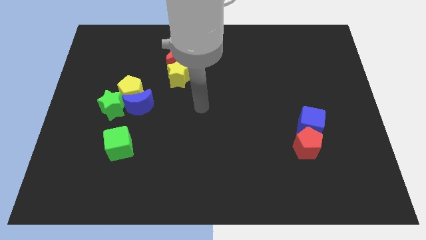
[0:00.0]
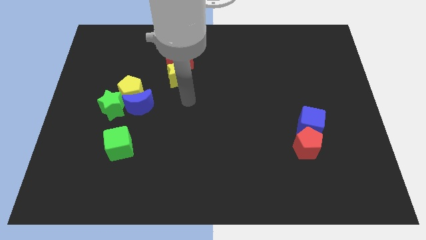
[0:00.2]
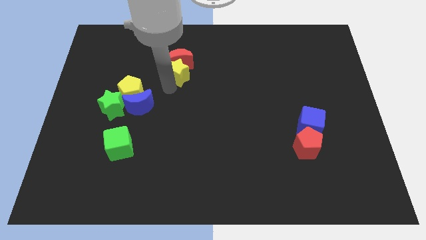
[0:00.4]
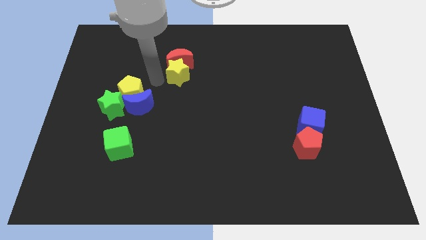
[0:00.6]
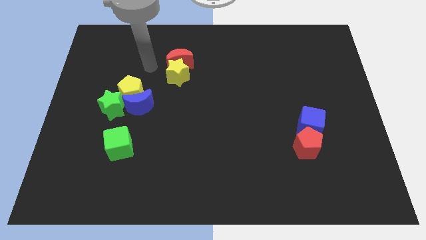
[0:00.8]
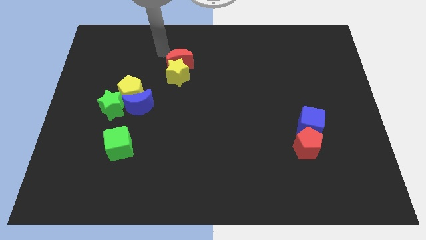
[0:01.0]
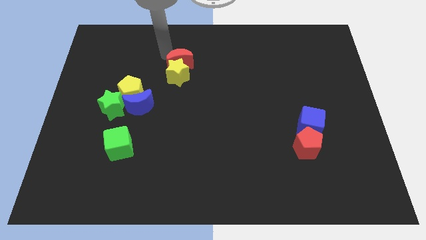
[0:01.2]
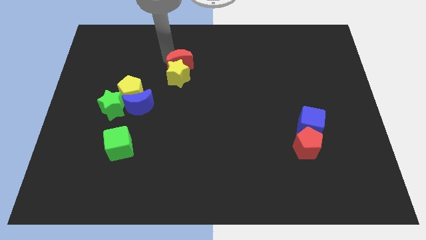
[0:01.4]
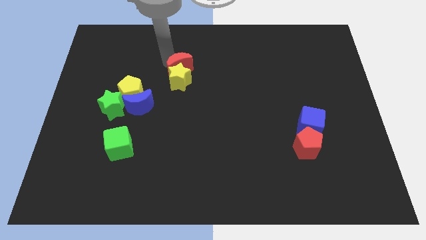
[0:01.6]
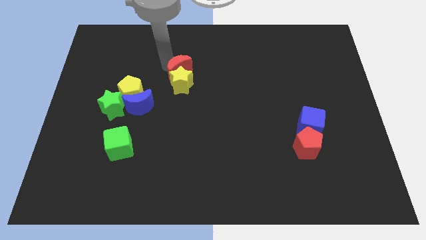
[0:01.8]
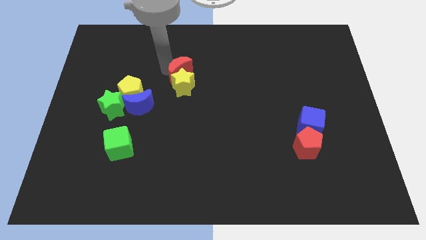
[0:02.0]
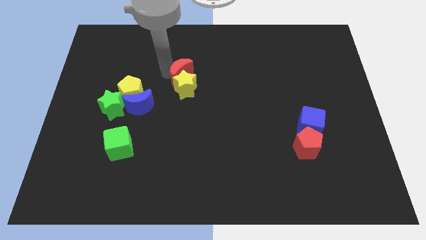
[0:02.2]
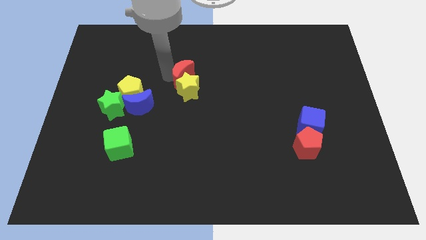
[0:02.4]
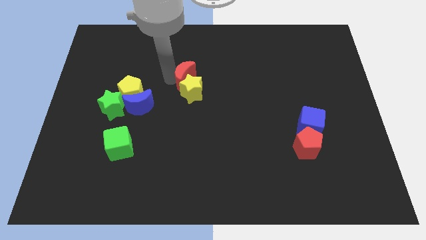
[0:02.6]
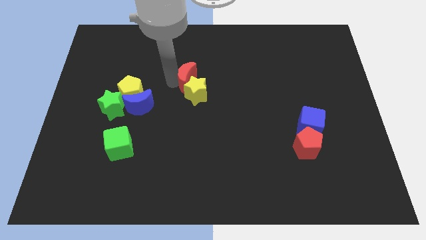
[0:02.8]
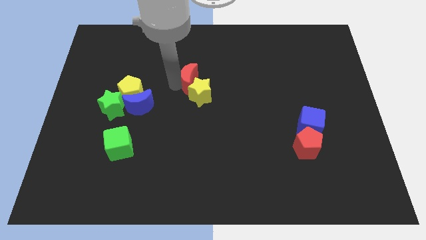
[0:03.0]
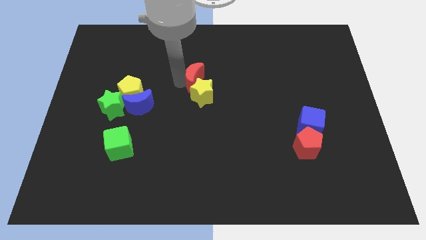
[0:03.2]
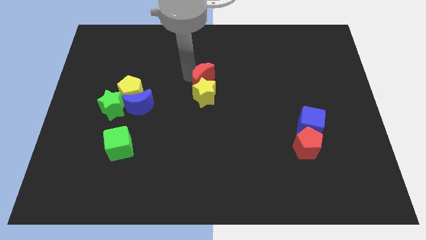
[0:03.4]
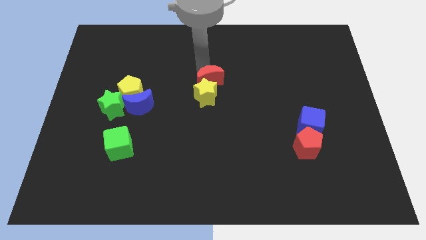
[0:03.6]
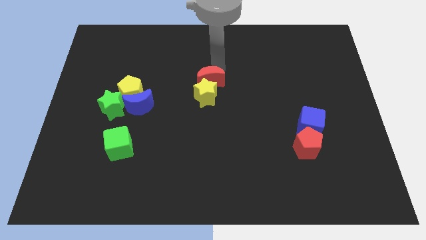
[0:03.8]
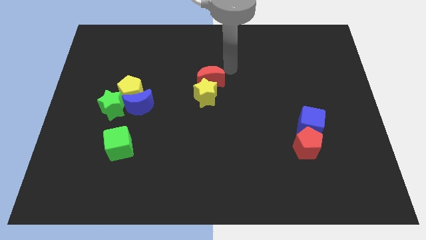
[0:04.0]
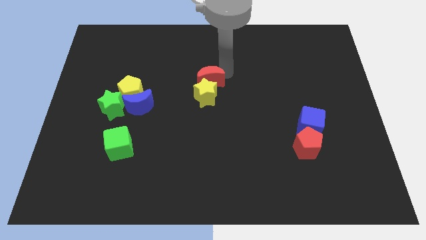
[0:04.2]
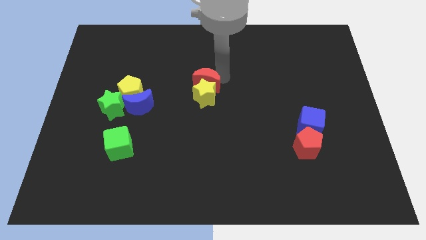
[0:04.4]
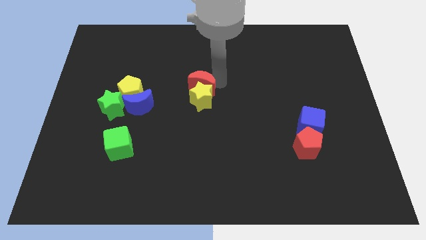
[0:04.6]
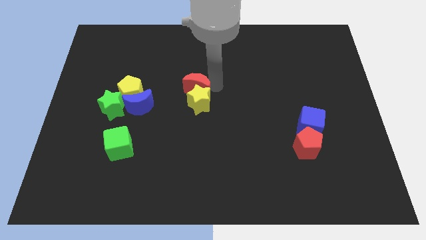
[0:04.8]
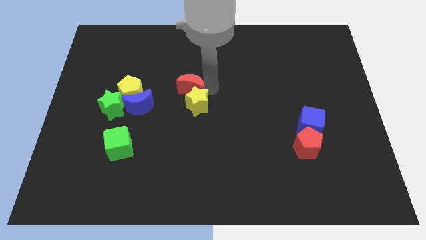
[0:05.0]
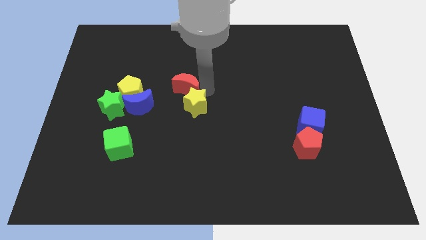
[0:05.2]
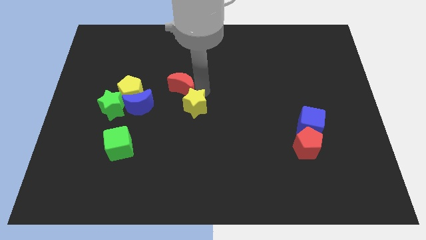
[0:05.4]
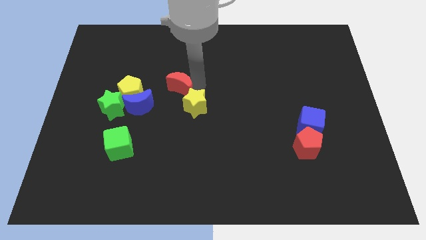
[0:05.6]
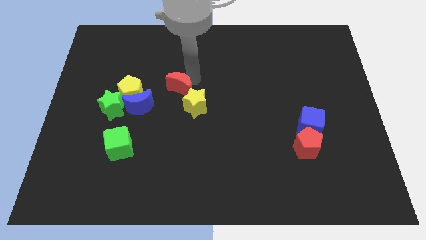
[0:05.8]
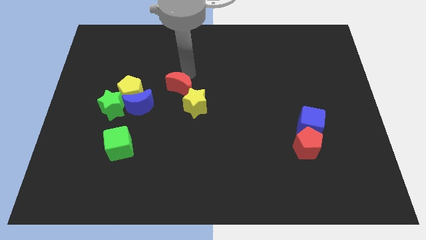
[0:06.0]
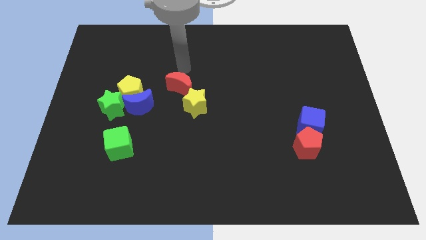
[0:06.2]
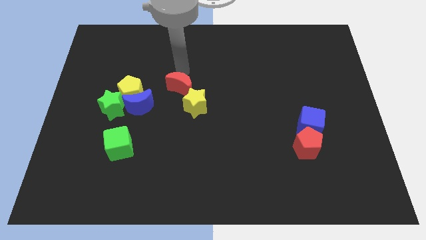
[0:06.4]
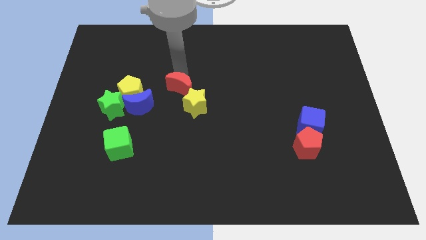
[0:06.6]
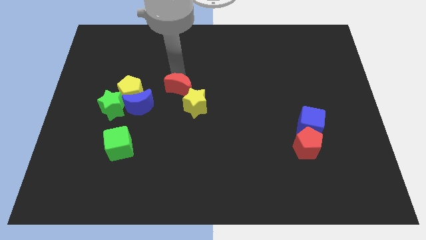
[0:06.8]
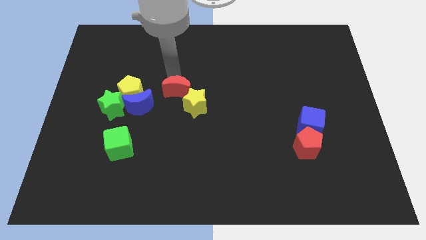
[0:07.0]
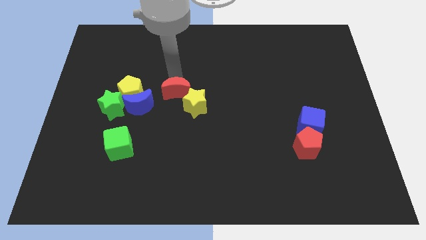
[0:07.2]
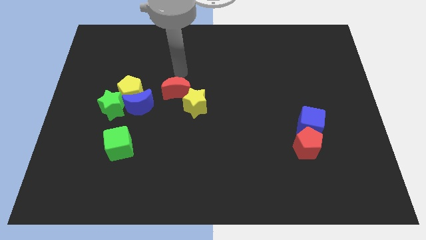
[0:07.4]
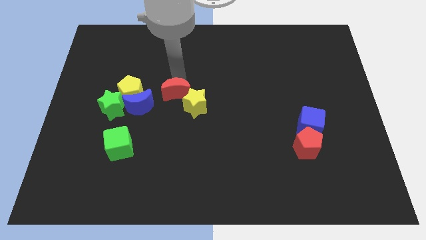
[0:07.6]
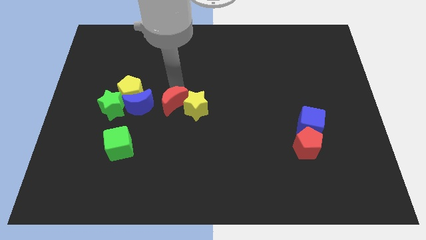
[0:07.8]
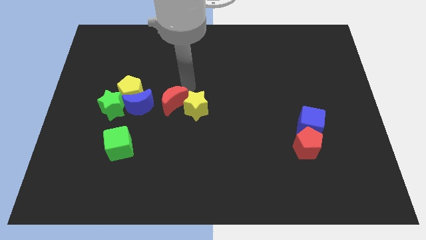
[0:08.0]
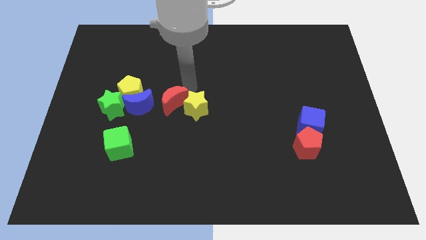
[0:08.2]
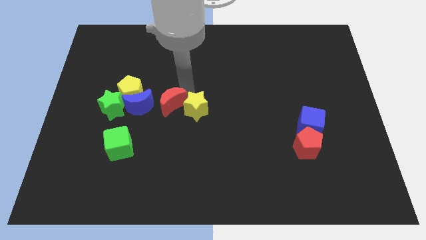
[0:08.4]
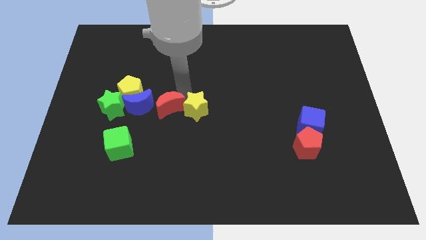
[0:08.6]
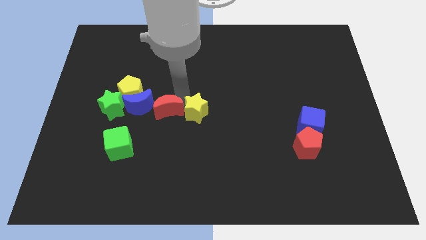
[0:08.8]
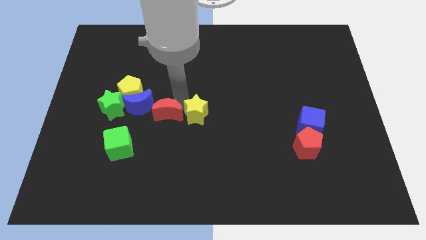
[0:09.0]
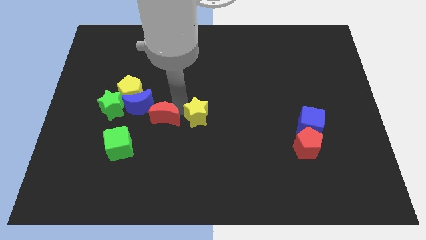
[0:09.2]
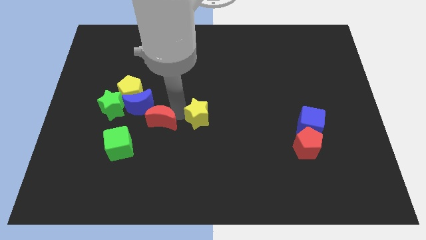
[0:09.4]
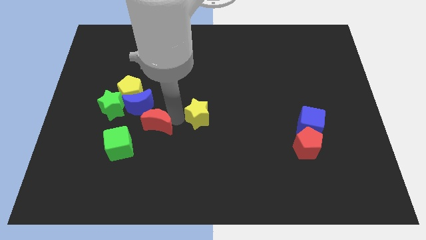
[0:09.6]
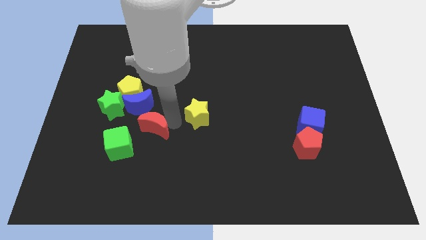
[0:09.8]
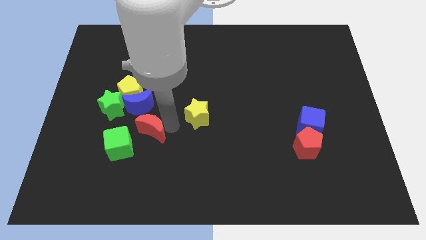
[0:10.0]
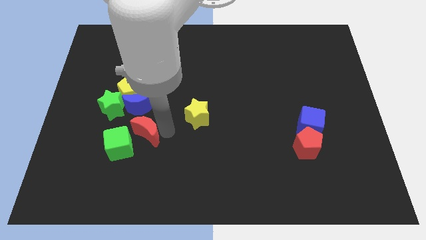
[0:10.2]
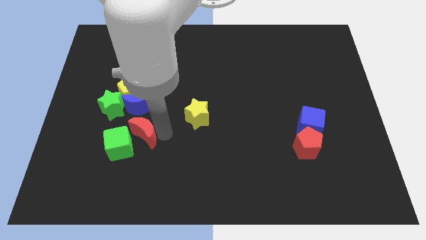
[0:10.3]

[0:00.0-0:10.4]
move the red moon to the green cube

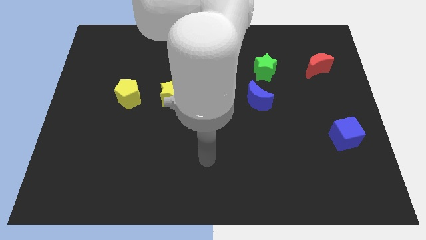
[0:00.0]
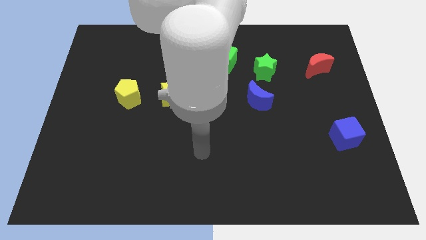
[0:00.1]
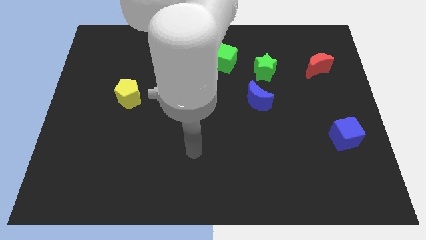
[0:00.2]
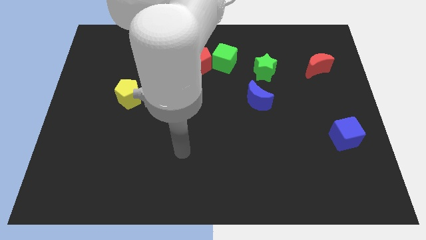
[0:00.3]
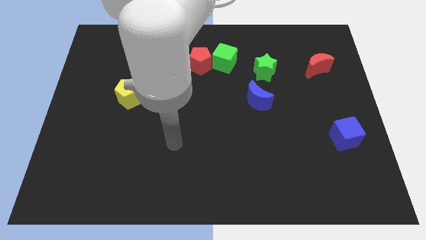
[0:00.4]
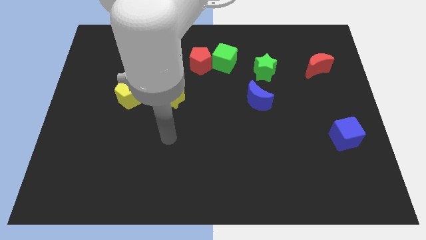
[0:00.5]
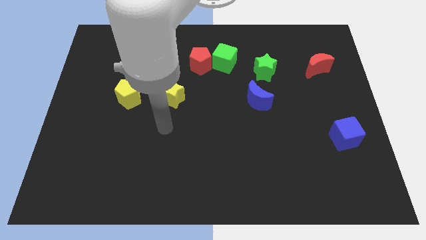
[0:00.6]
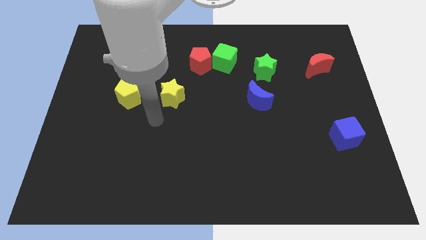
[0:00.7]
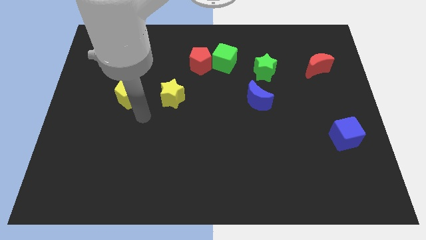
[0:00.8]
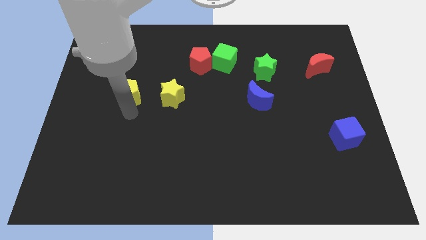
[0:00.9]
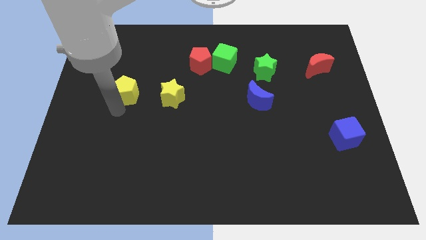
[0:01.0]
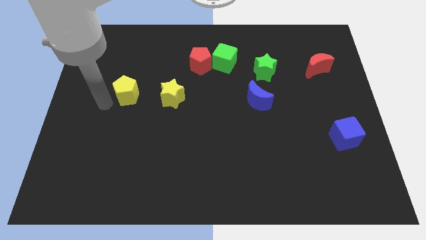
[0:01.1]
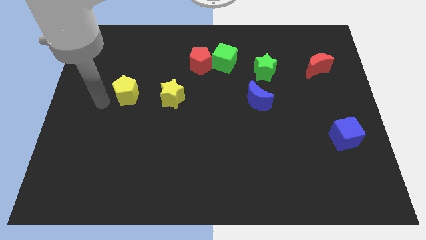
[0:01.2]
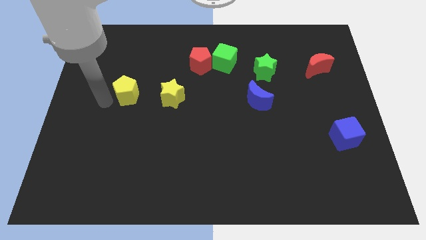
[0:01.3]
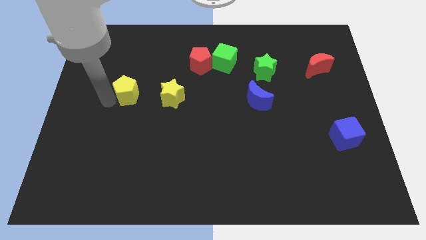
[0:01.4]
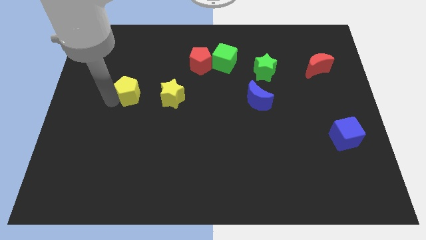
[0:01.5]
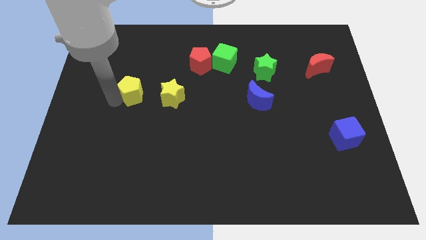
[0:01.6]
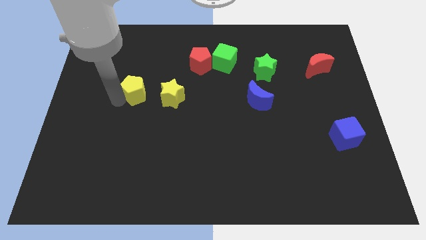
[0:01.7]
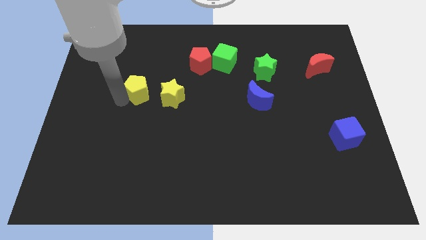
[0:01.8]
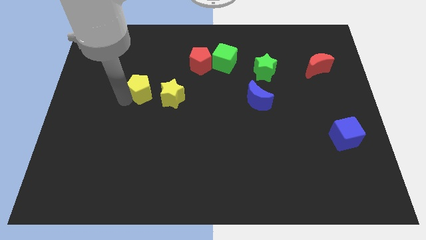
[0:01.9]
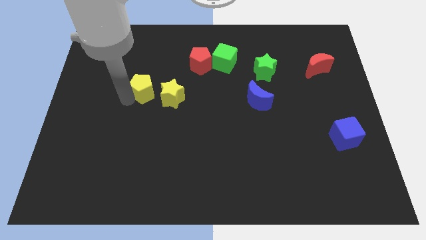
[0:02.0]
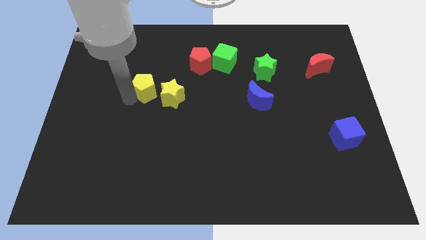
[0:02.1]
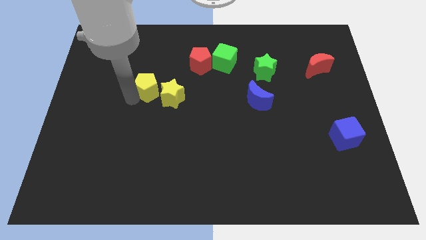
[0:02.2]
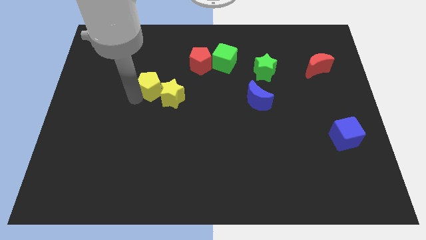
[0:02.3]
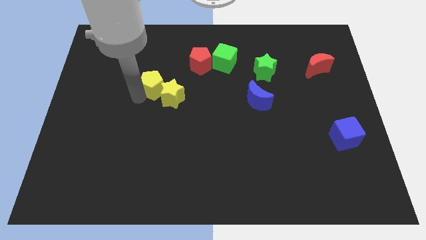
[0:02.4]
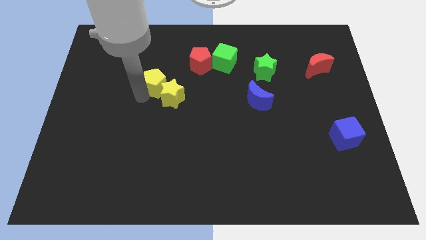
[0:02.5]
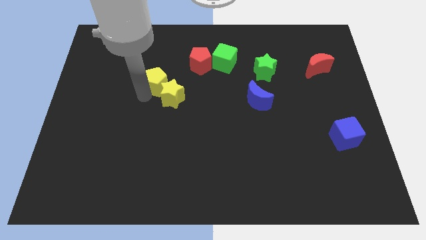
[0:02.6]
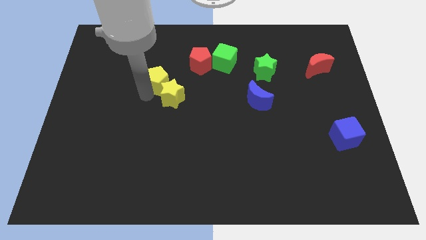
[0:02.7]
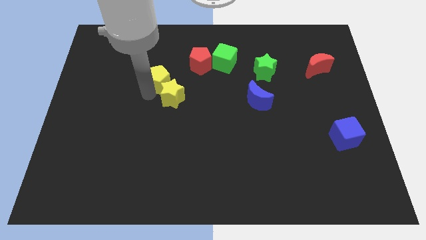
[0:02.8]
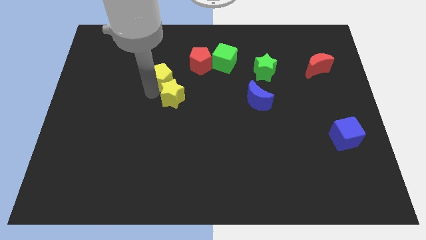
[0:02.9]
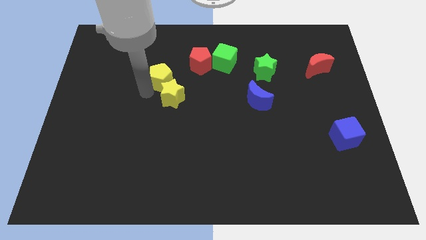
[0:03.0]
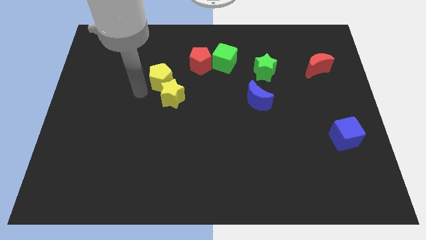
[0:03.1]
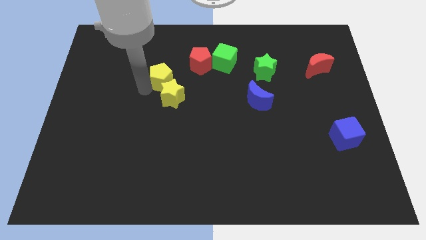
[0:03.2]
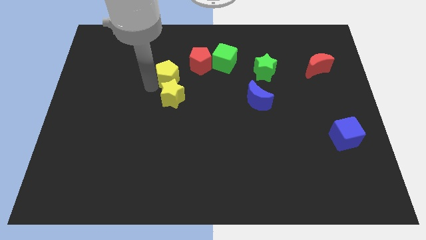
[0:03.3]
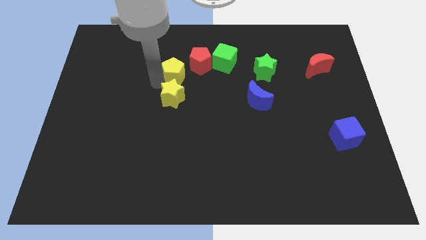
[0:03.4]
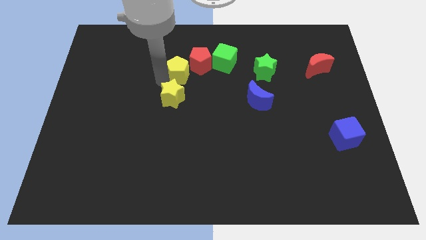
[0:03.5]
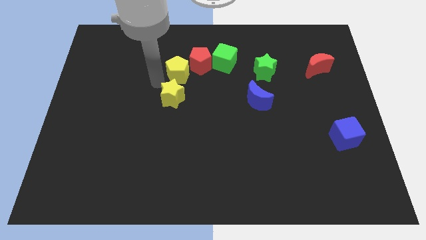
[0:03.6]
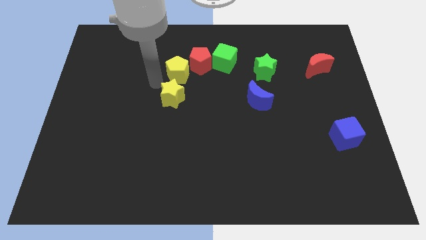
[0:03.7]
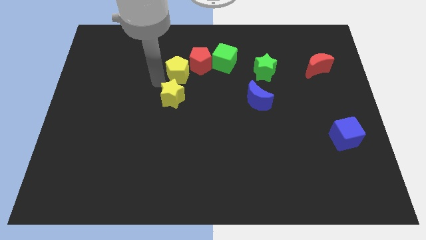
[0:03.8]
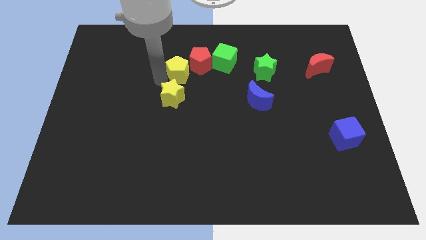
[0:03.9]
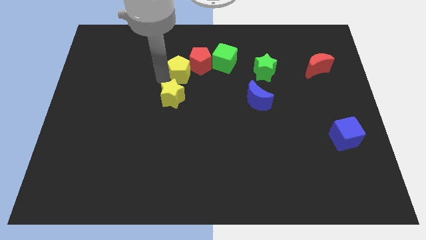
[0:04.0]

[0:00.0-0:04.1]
push the yellow pentagon close to the red pentagon
